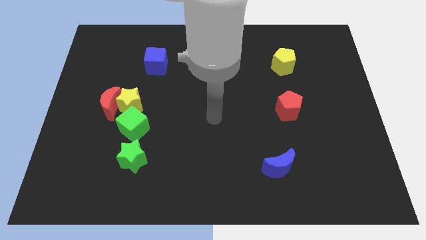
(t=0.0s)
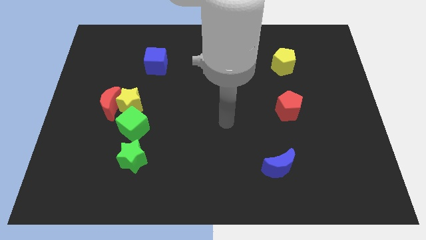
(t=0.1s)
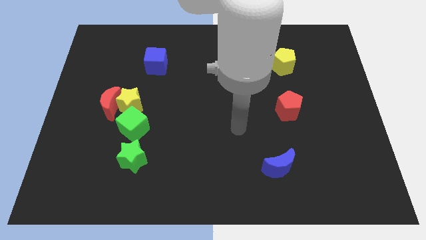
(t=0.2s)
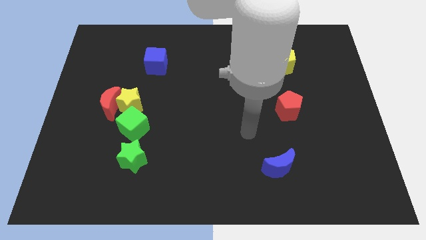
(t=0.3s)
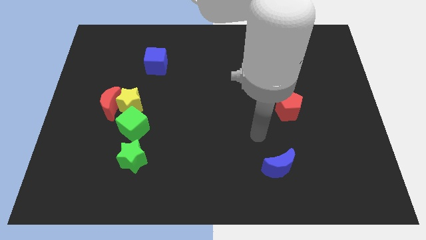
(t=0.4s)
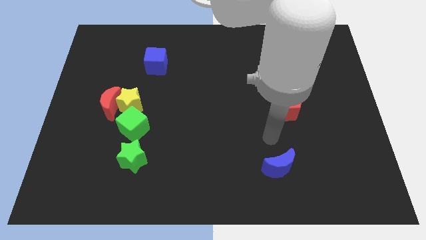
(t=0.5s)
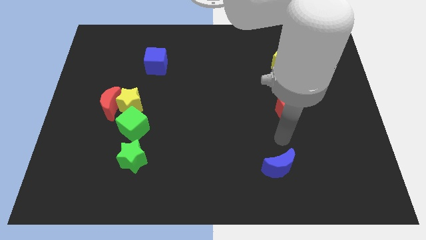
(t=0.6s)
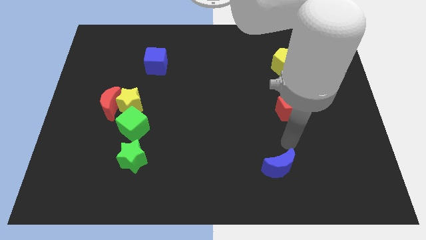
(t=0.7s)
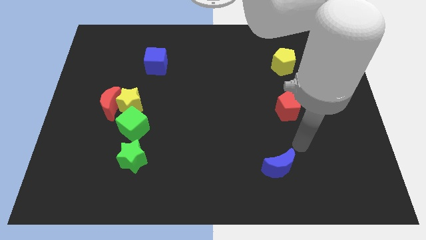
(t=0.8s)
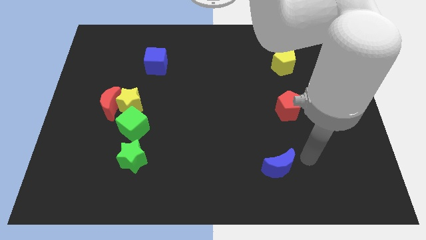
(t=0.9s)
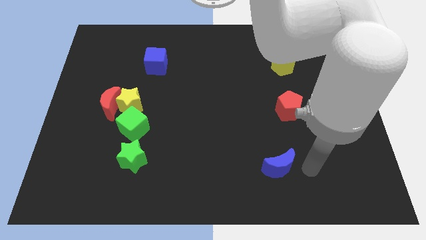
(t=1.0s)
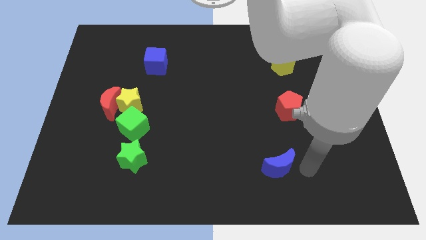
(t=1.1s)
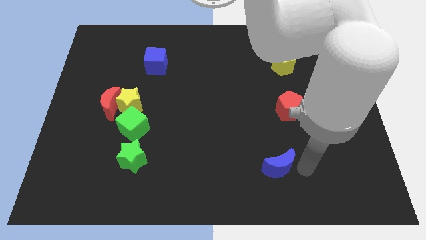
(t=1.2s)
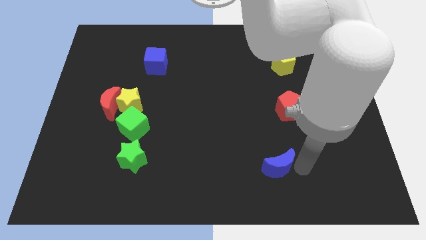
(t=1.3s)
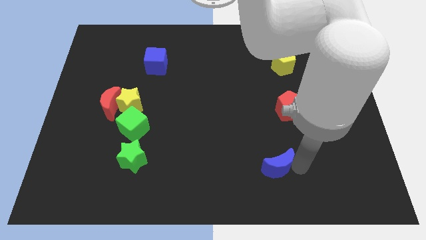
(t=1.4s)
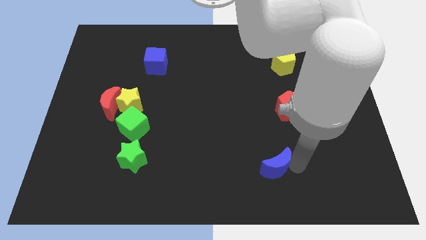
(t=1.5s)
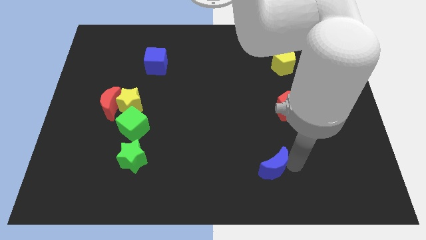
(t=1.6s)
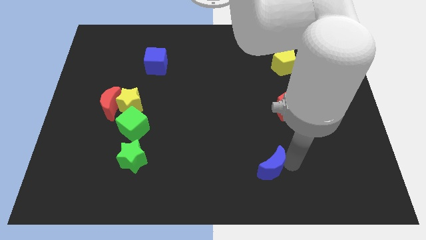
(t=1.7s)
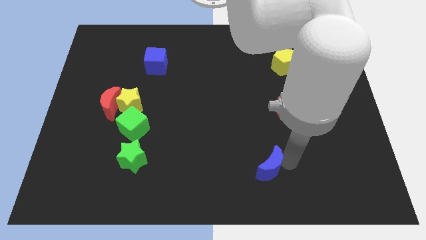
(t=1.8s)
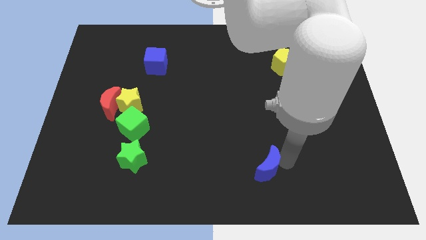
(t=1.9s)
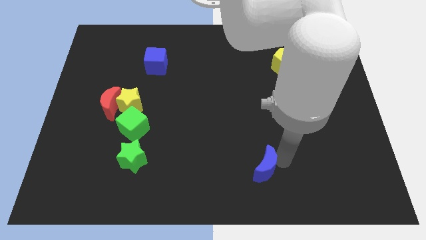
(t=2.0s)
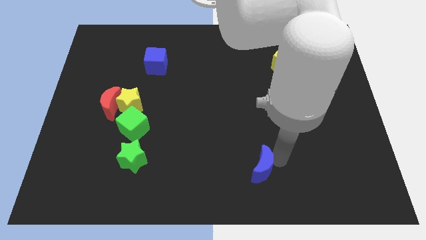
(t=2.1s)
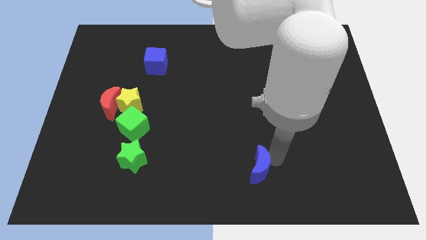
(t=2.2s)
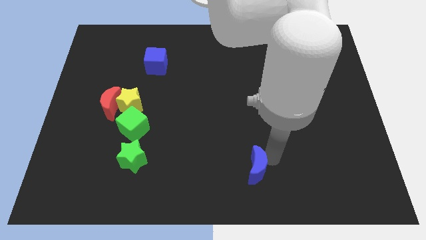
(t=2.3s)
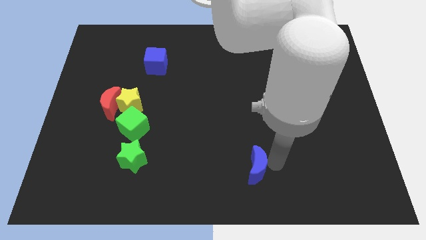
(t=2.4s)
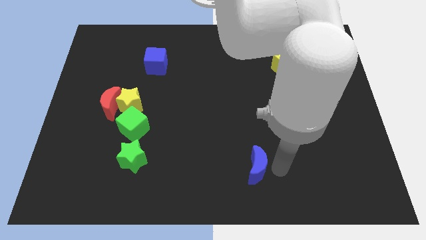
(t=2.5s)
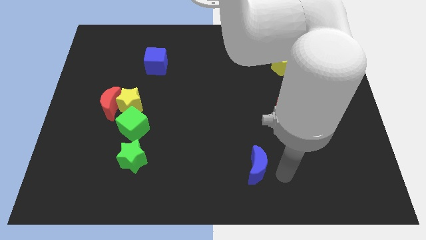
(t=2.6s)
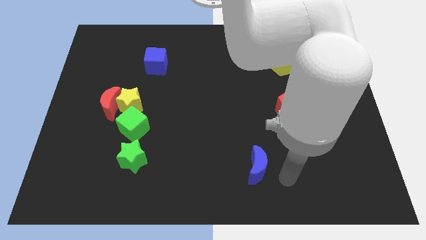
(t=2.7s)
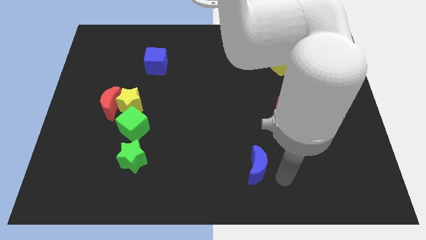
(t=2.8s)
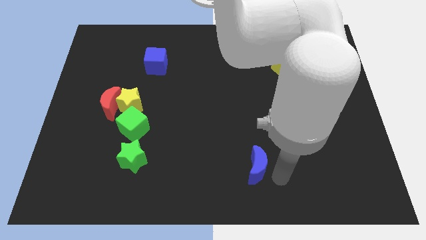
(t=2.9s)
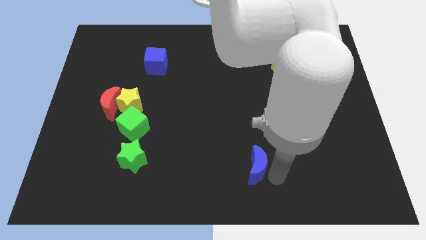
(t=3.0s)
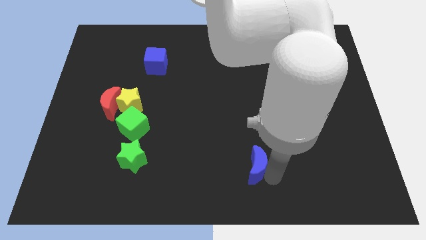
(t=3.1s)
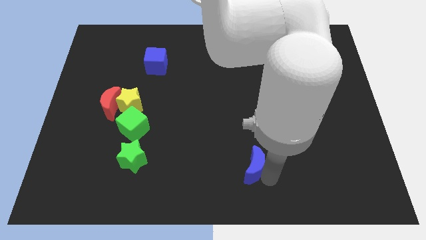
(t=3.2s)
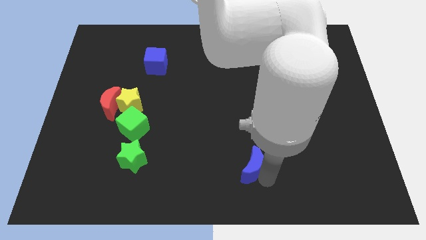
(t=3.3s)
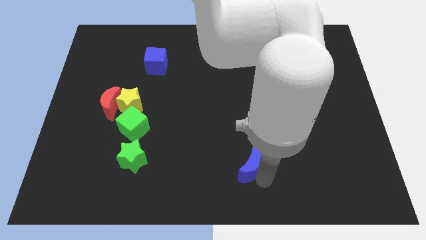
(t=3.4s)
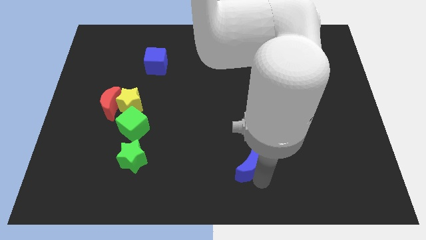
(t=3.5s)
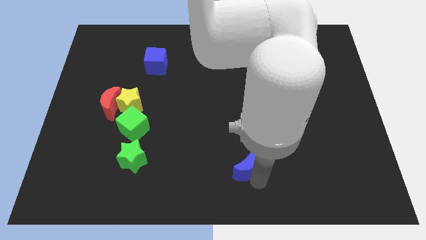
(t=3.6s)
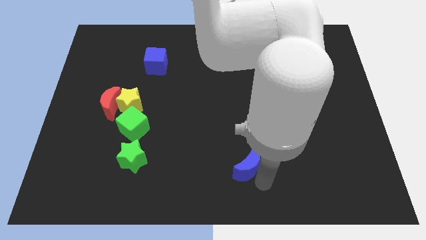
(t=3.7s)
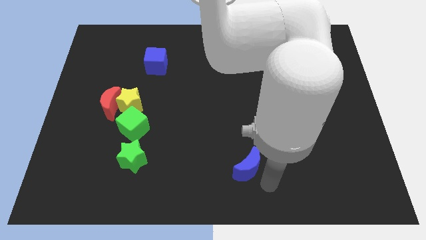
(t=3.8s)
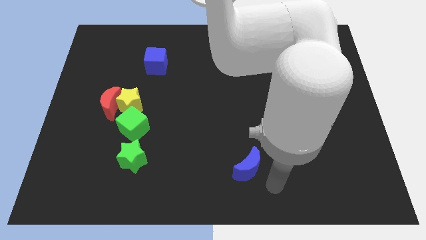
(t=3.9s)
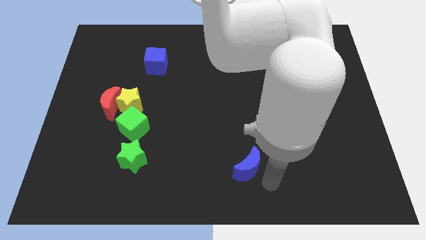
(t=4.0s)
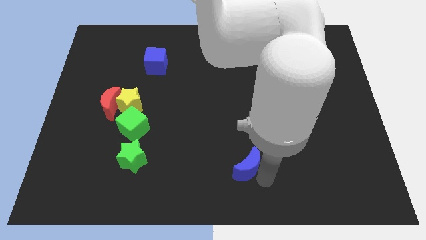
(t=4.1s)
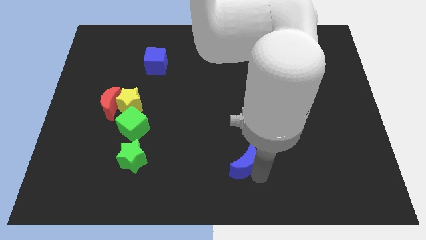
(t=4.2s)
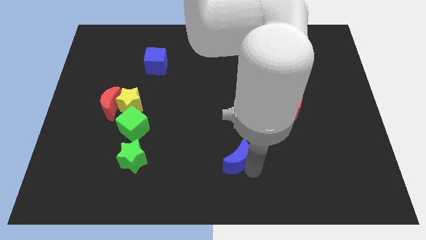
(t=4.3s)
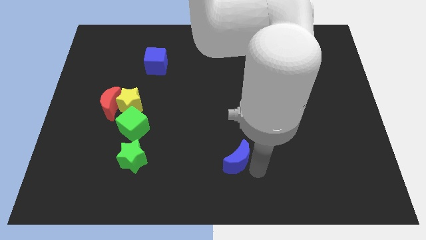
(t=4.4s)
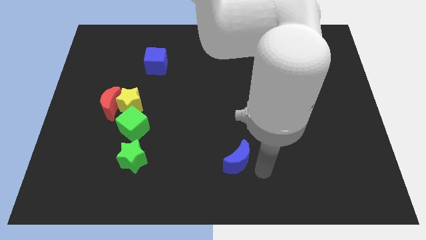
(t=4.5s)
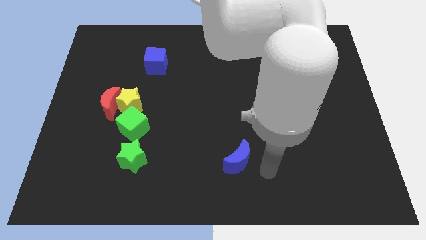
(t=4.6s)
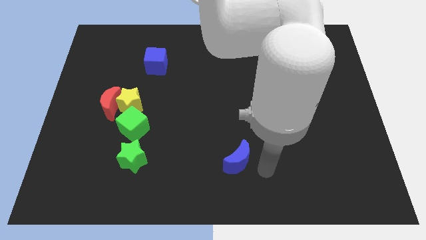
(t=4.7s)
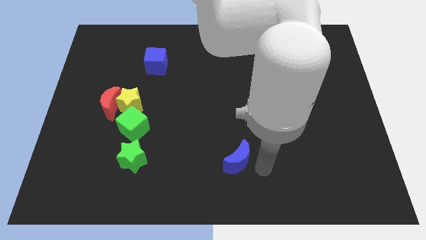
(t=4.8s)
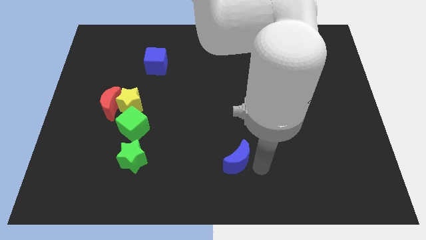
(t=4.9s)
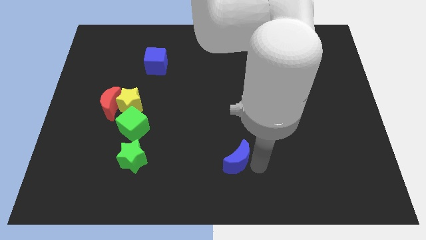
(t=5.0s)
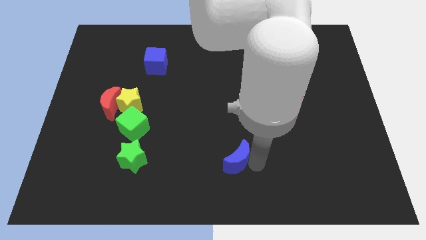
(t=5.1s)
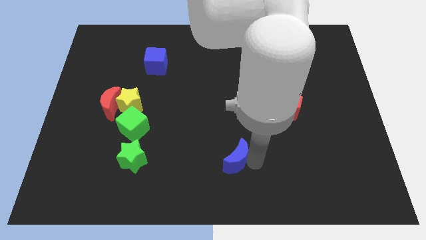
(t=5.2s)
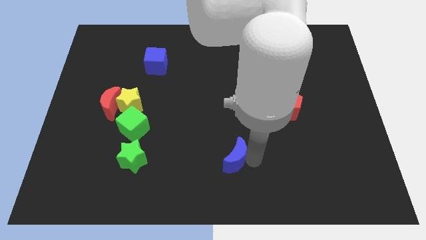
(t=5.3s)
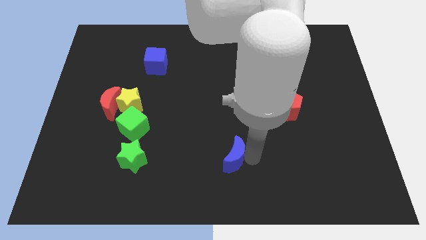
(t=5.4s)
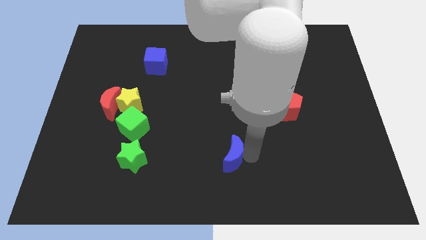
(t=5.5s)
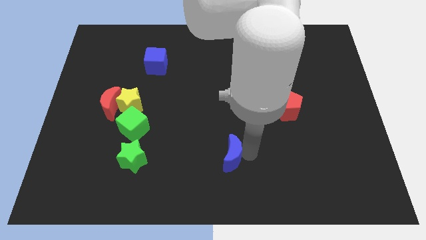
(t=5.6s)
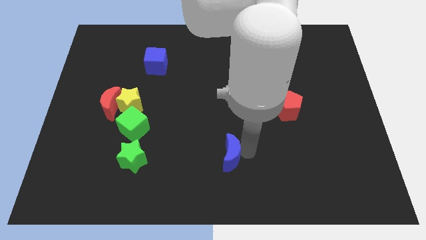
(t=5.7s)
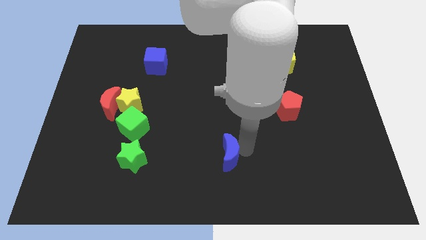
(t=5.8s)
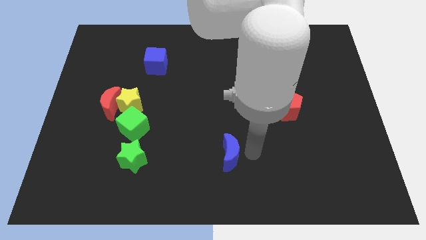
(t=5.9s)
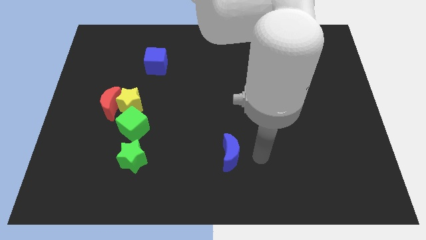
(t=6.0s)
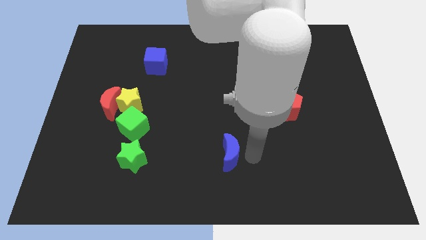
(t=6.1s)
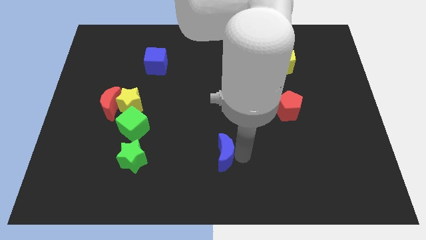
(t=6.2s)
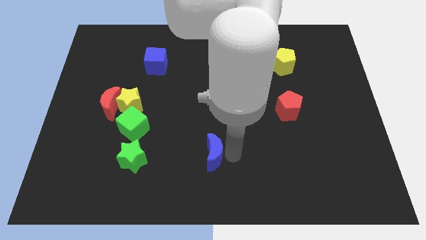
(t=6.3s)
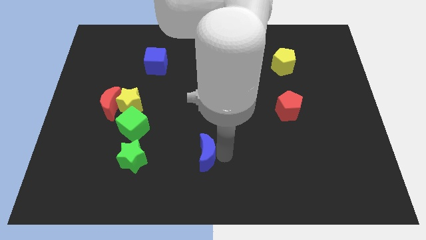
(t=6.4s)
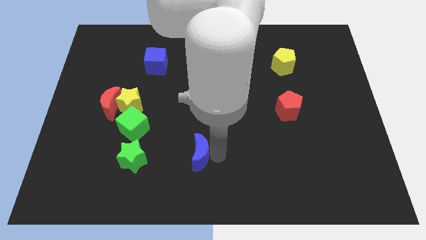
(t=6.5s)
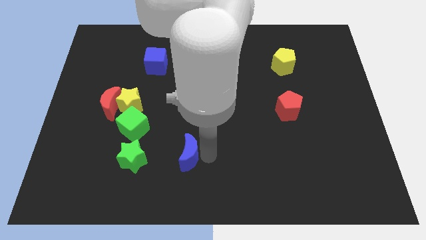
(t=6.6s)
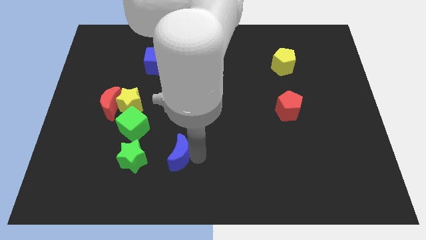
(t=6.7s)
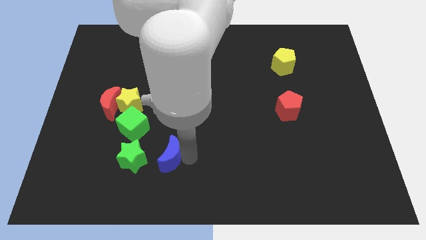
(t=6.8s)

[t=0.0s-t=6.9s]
push the blue moon diagonally down and to the right of the green cube

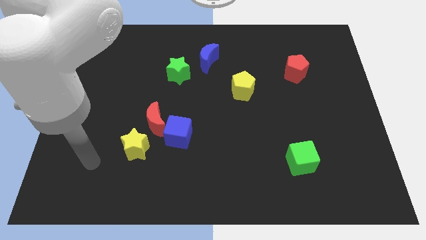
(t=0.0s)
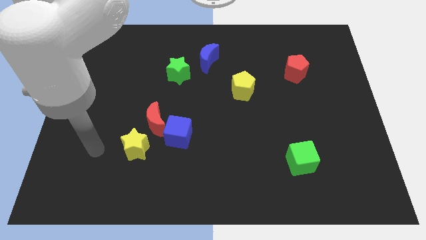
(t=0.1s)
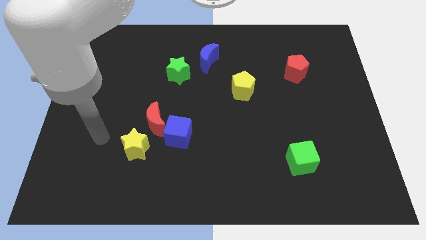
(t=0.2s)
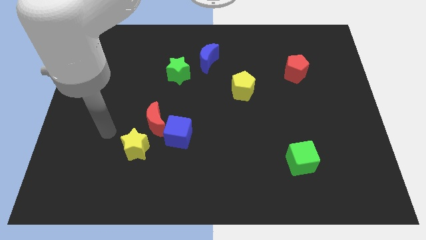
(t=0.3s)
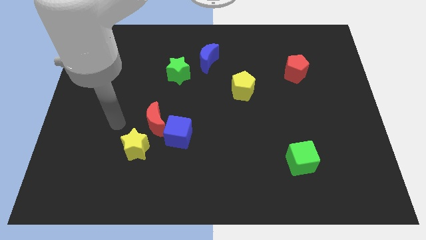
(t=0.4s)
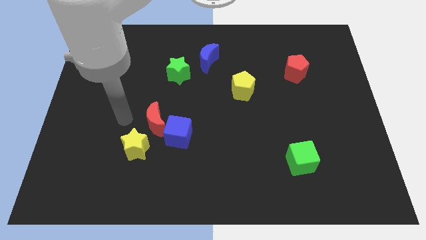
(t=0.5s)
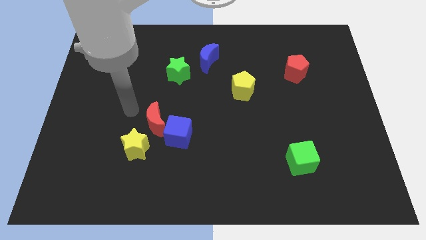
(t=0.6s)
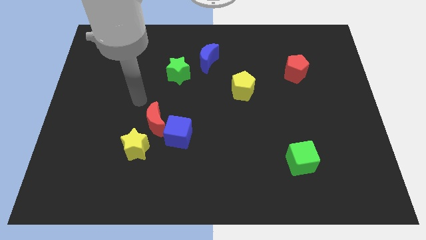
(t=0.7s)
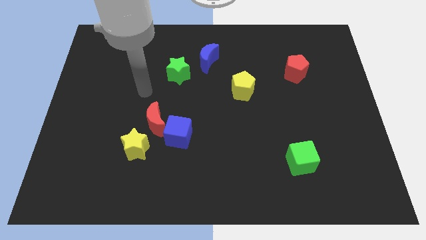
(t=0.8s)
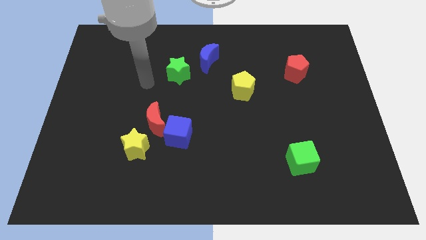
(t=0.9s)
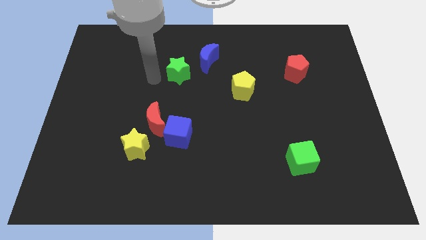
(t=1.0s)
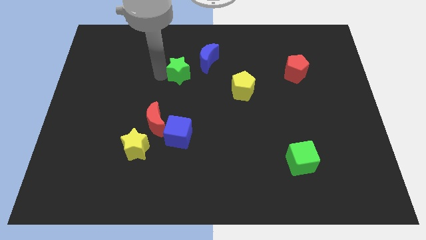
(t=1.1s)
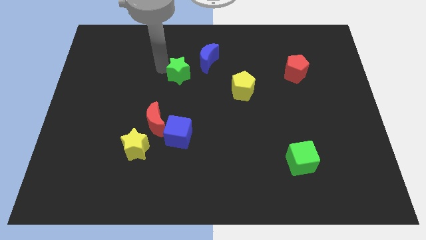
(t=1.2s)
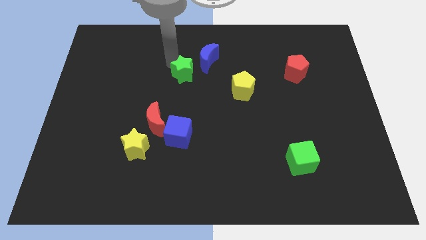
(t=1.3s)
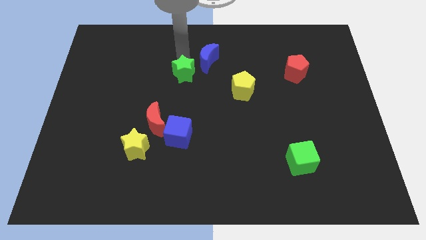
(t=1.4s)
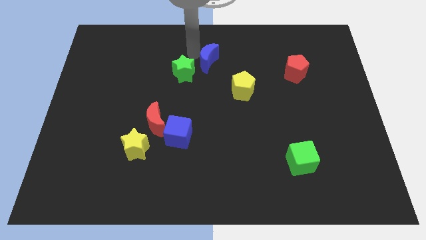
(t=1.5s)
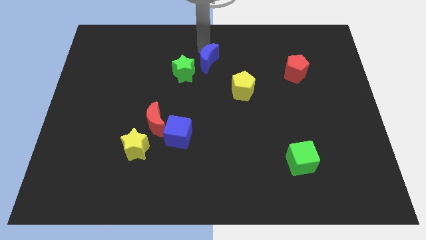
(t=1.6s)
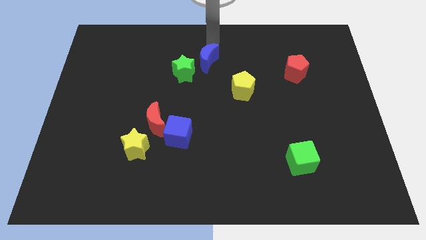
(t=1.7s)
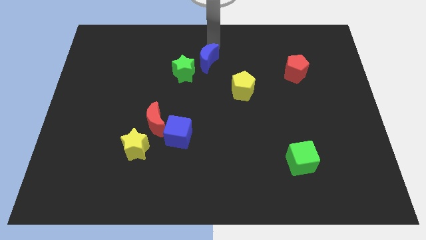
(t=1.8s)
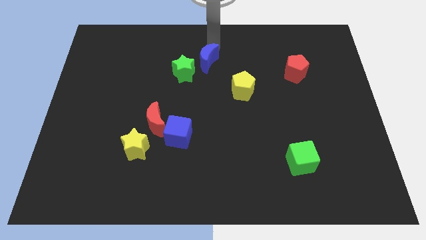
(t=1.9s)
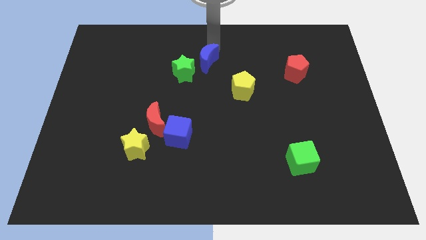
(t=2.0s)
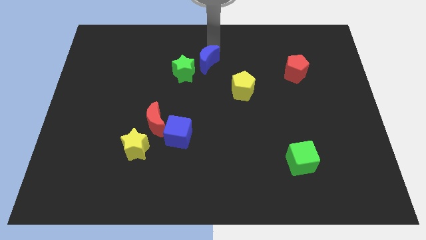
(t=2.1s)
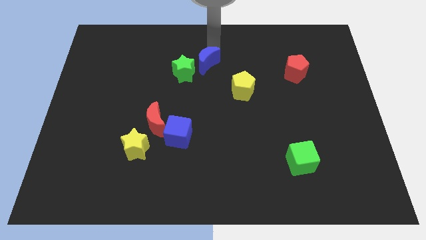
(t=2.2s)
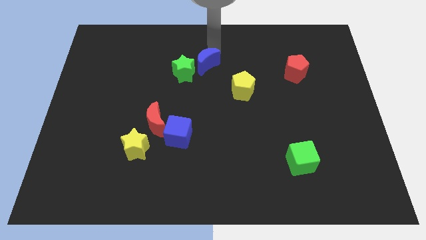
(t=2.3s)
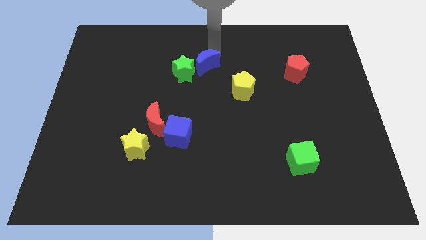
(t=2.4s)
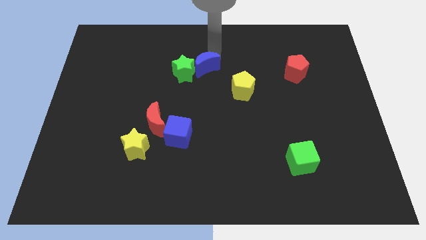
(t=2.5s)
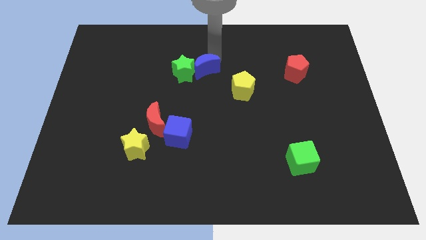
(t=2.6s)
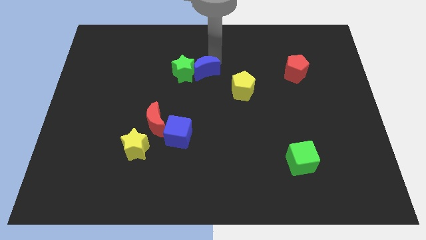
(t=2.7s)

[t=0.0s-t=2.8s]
slide the blue moon to the bottom right side of the green star
